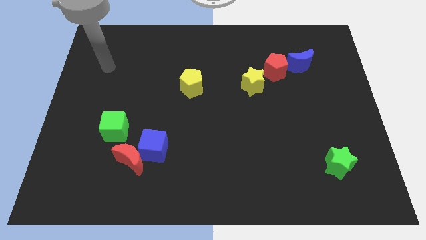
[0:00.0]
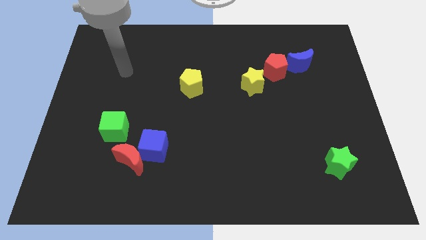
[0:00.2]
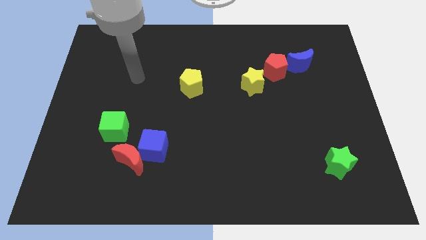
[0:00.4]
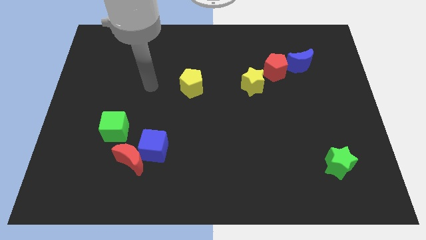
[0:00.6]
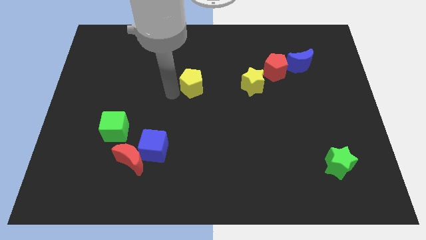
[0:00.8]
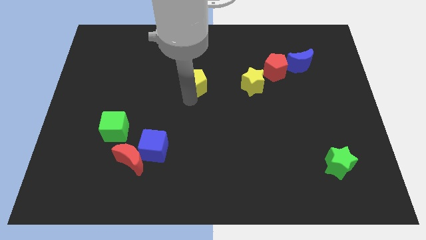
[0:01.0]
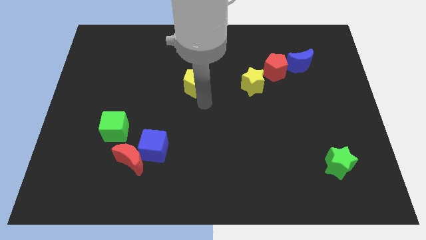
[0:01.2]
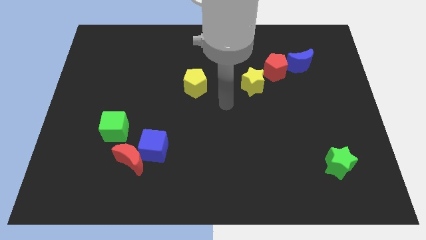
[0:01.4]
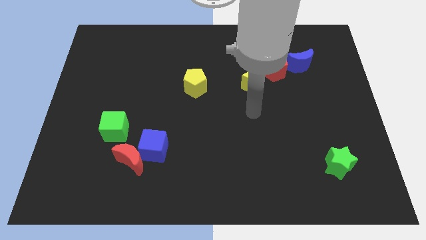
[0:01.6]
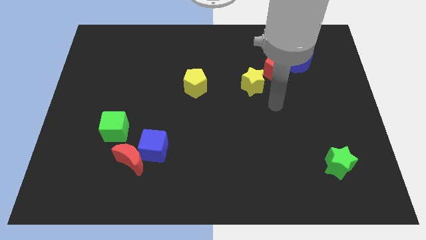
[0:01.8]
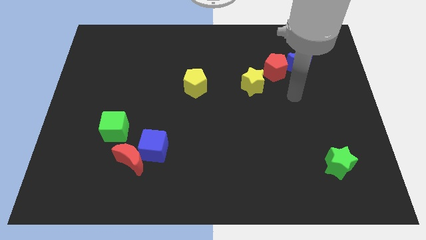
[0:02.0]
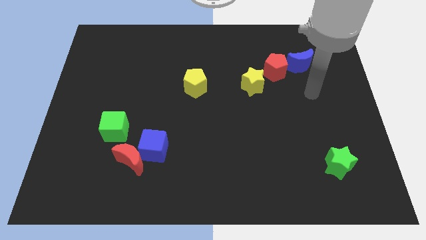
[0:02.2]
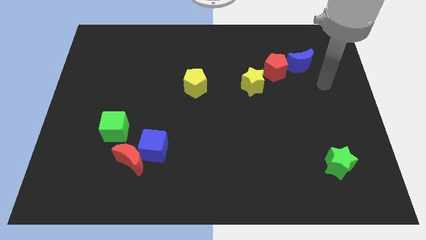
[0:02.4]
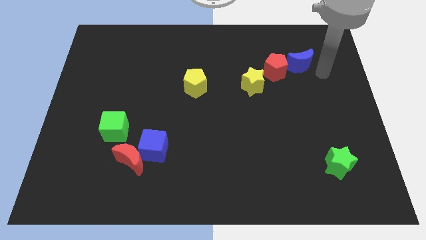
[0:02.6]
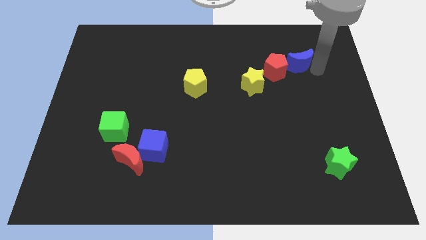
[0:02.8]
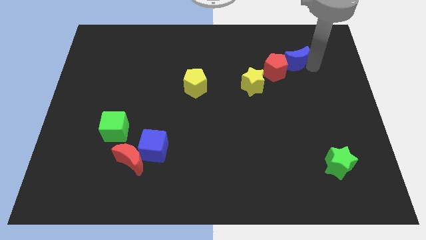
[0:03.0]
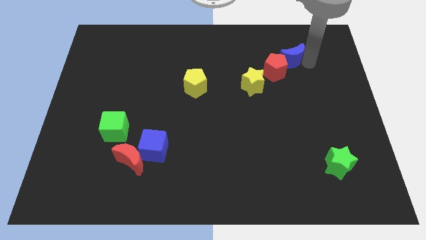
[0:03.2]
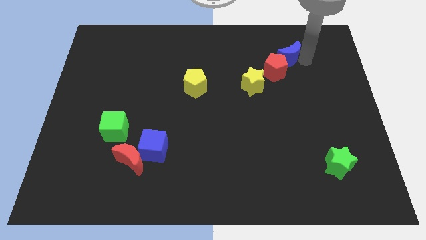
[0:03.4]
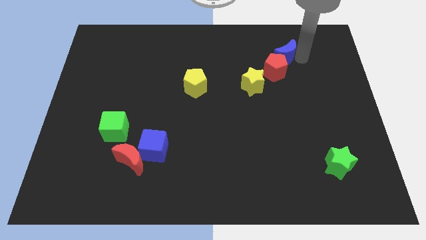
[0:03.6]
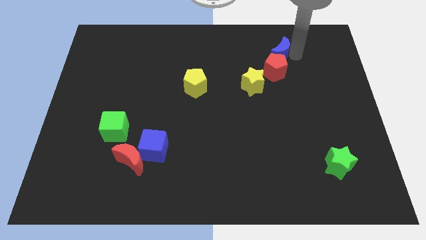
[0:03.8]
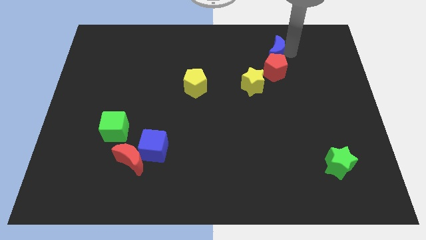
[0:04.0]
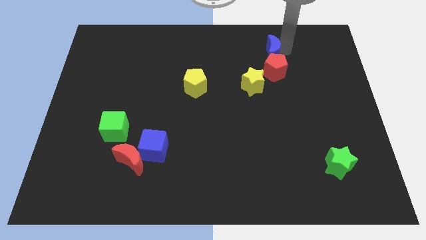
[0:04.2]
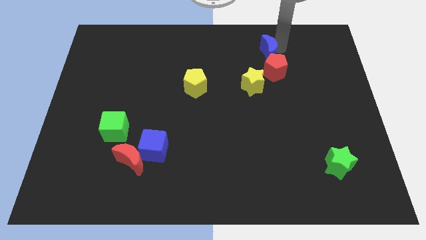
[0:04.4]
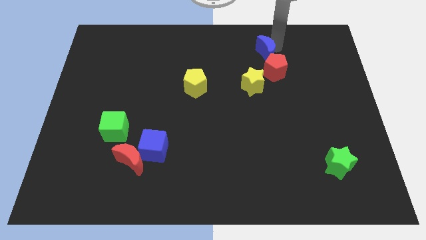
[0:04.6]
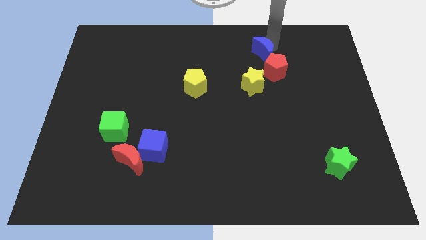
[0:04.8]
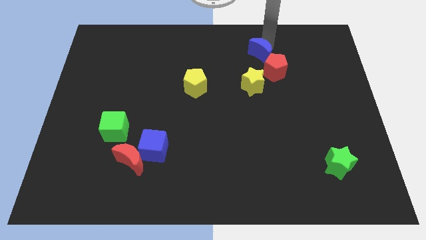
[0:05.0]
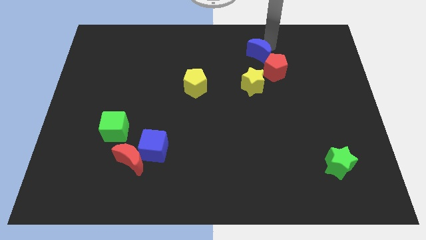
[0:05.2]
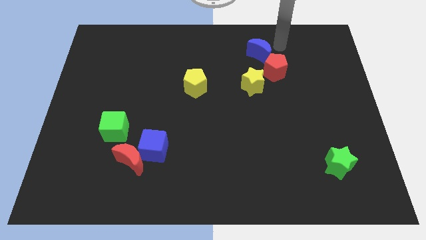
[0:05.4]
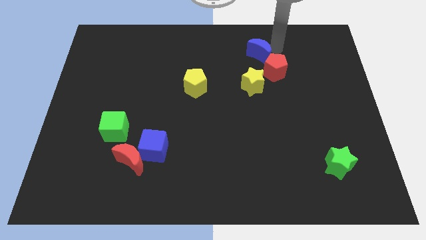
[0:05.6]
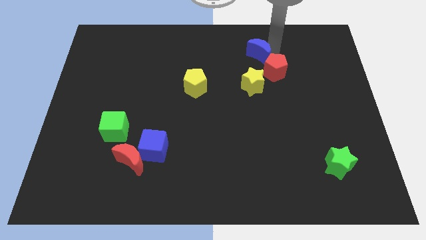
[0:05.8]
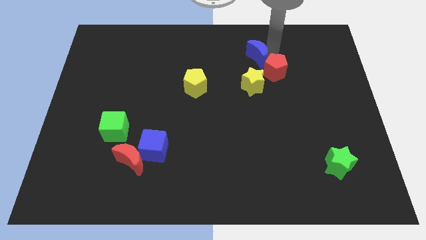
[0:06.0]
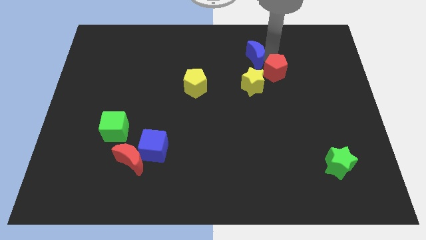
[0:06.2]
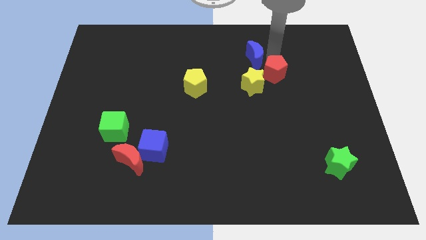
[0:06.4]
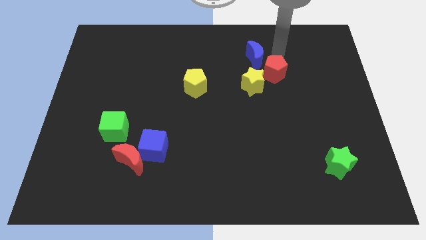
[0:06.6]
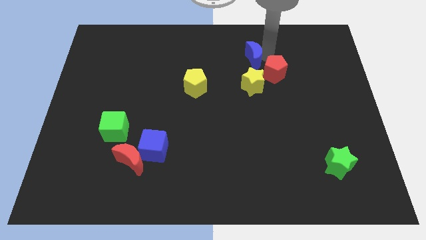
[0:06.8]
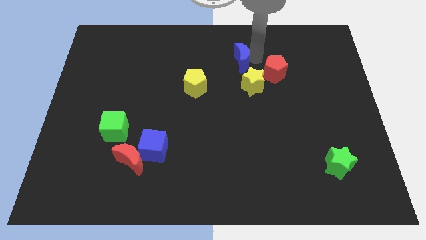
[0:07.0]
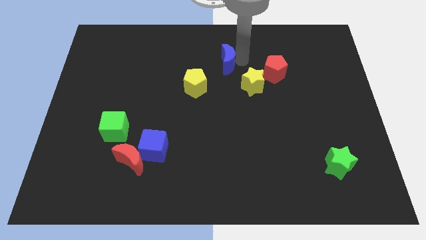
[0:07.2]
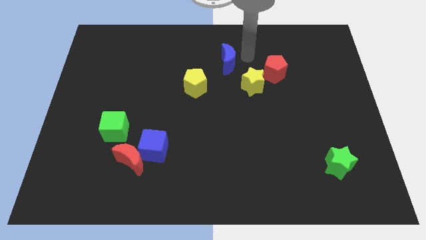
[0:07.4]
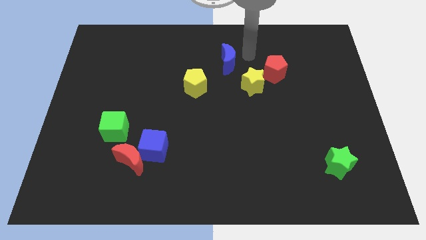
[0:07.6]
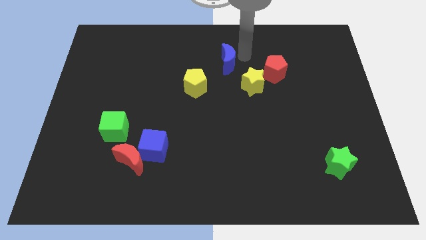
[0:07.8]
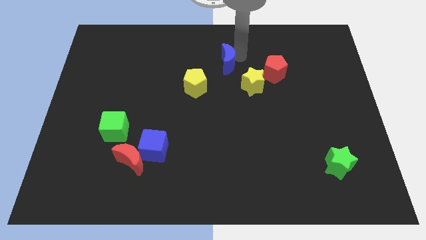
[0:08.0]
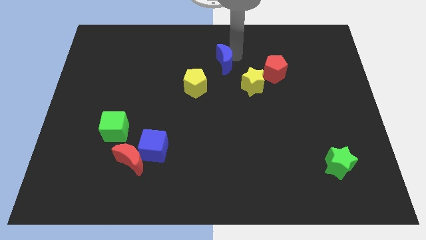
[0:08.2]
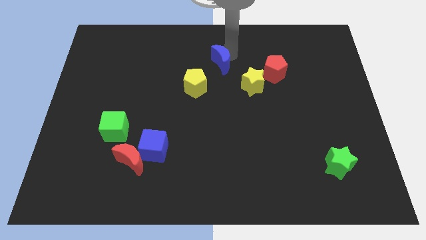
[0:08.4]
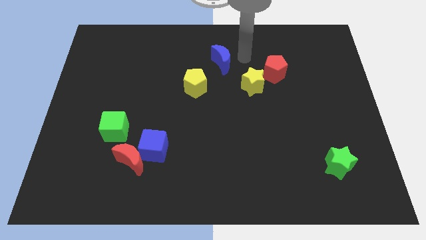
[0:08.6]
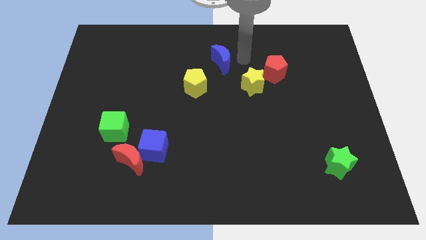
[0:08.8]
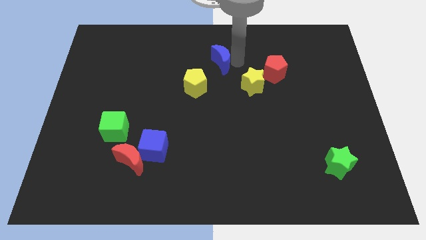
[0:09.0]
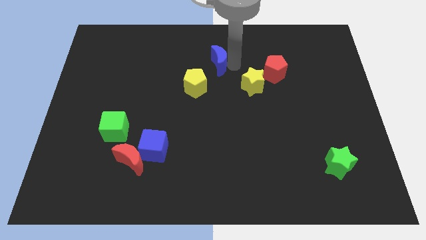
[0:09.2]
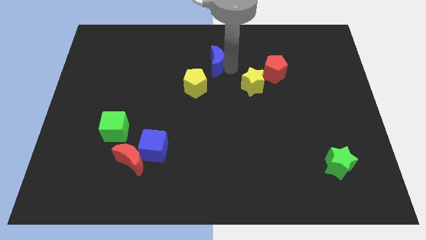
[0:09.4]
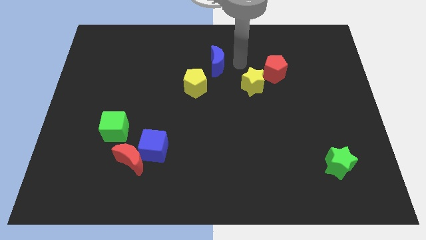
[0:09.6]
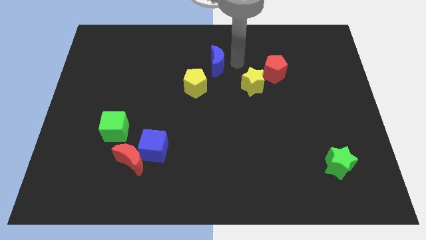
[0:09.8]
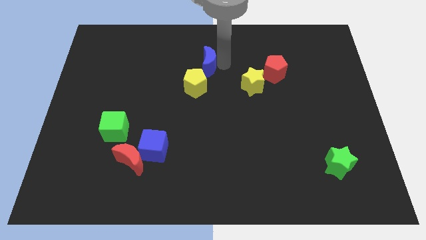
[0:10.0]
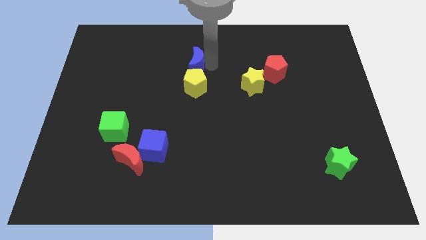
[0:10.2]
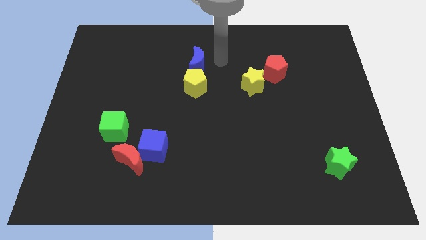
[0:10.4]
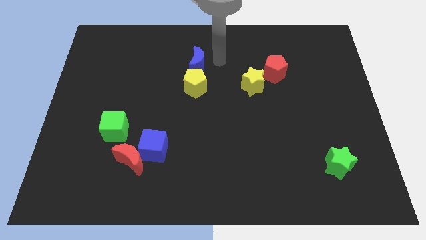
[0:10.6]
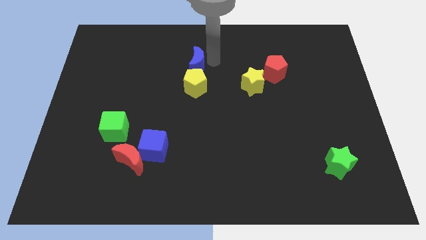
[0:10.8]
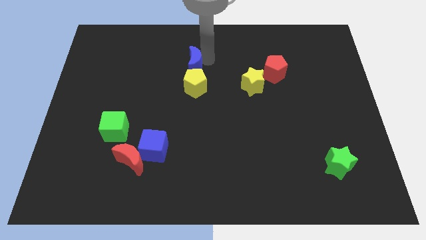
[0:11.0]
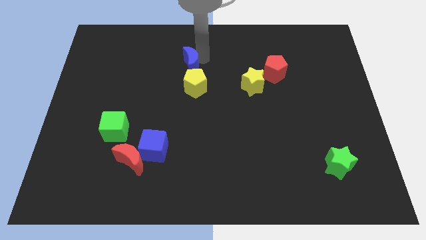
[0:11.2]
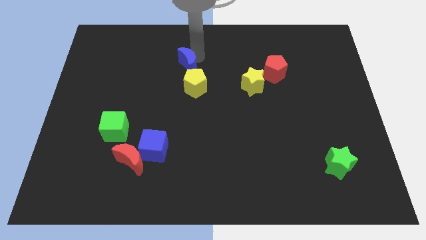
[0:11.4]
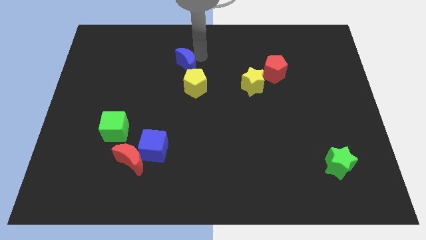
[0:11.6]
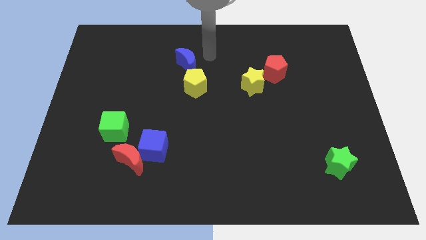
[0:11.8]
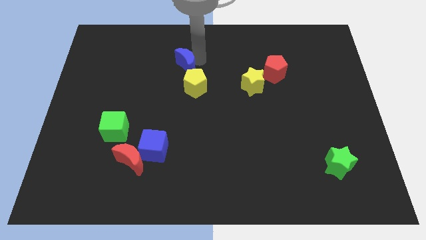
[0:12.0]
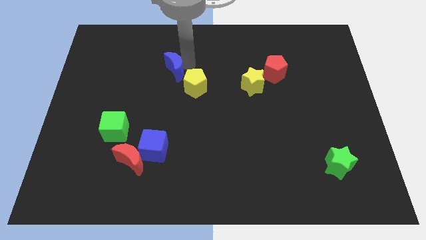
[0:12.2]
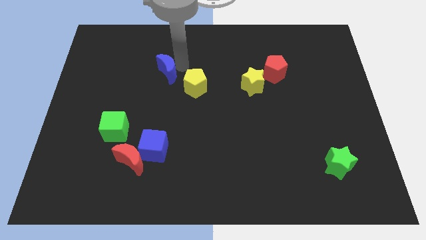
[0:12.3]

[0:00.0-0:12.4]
push the blue moon to the left of the yellow pentagon

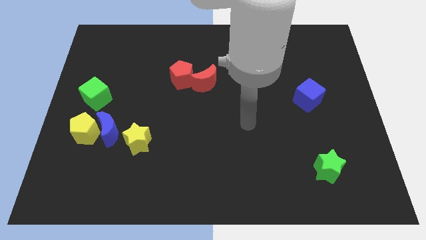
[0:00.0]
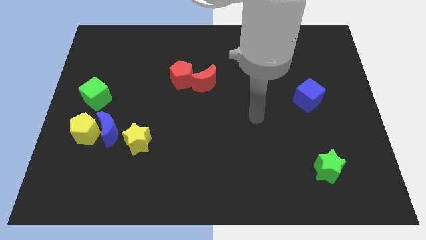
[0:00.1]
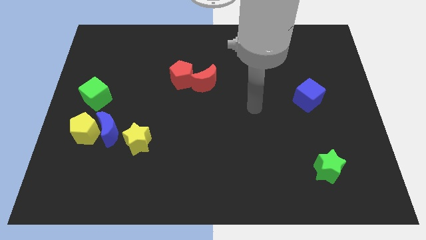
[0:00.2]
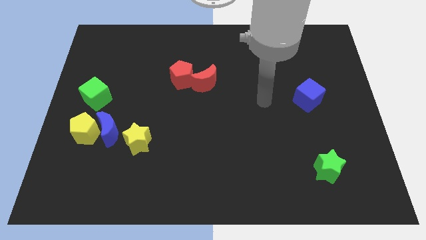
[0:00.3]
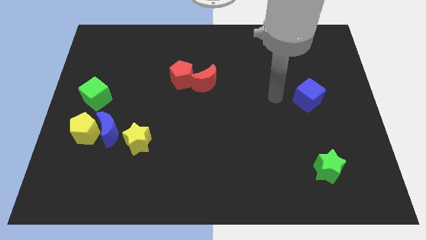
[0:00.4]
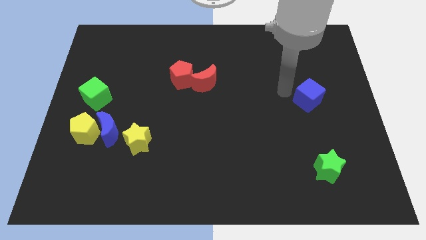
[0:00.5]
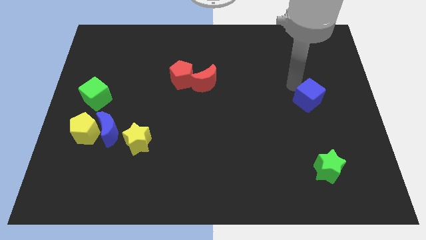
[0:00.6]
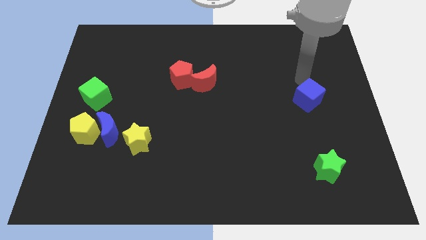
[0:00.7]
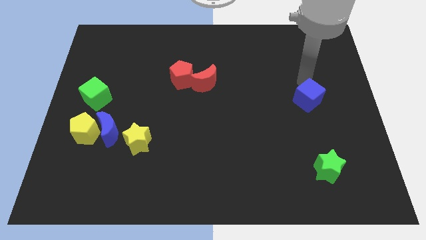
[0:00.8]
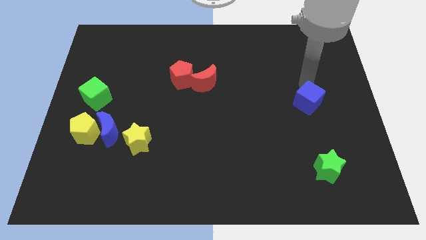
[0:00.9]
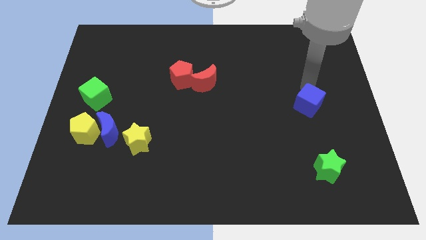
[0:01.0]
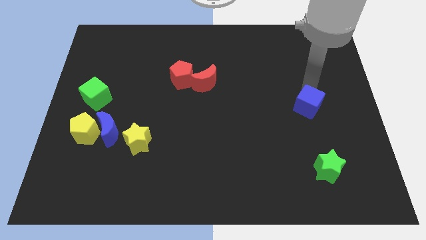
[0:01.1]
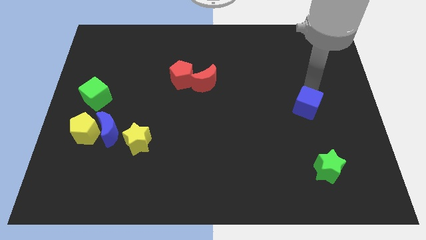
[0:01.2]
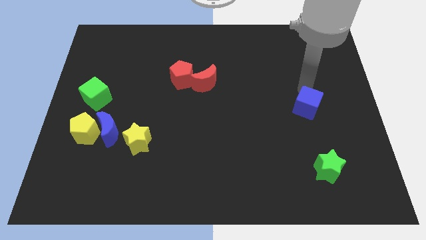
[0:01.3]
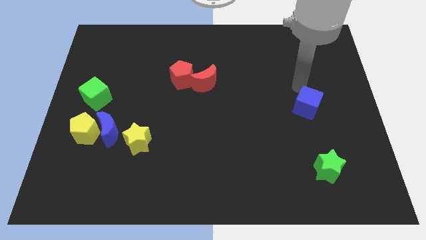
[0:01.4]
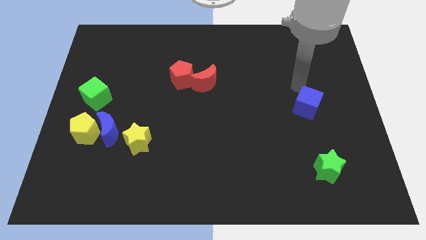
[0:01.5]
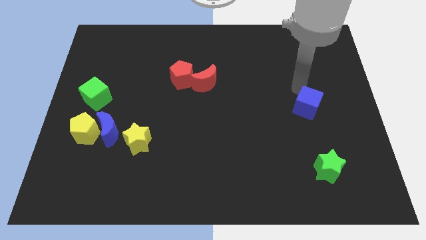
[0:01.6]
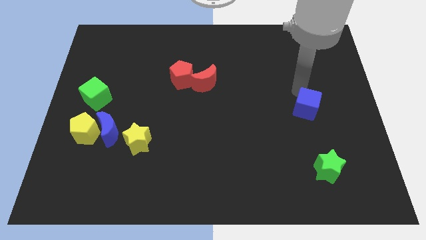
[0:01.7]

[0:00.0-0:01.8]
push the blue cube to the top of the green star

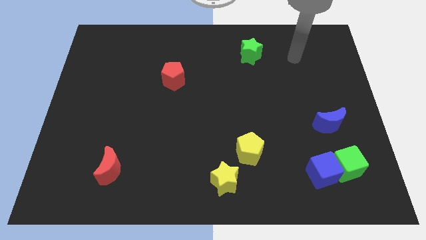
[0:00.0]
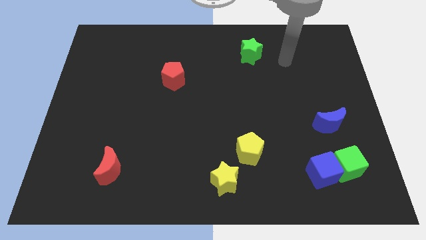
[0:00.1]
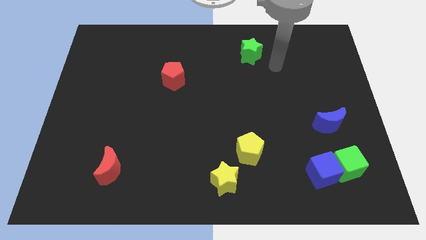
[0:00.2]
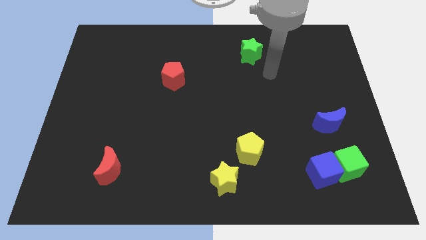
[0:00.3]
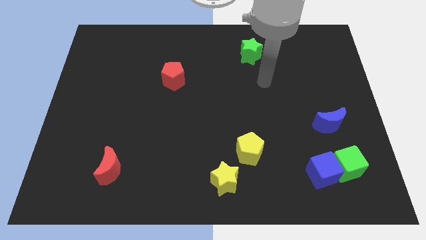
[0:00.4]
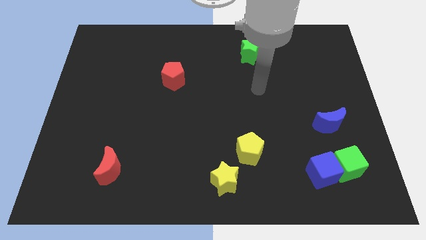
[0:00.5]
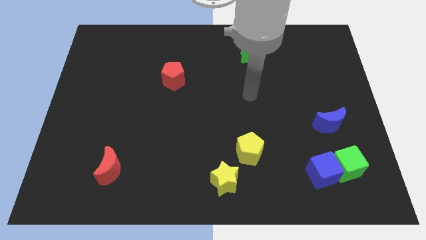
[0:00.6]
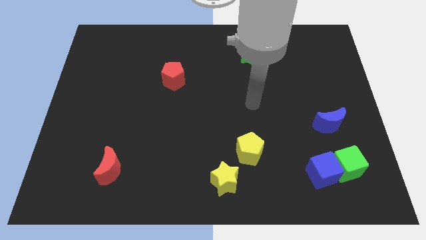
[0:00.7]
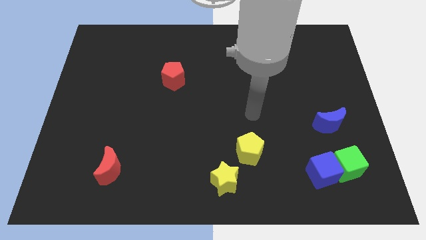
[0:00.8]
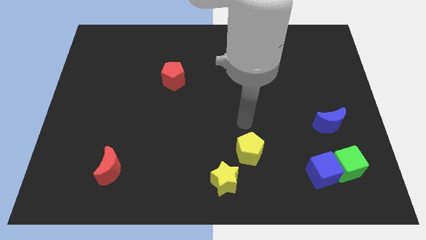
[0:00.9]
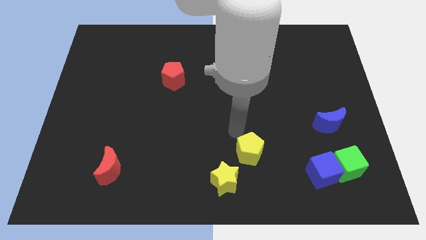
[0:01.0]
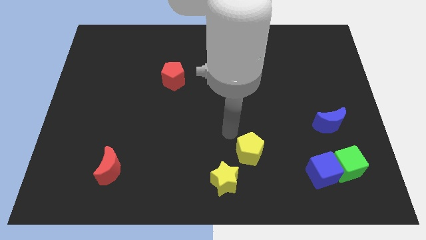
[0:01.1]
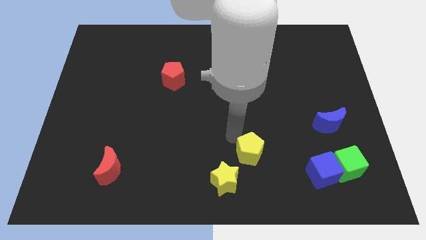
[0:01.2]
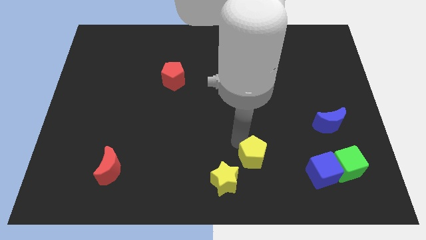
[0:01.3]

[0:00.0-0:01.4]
slide the yellow pentagon to the left side of the blue cube
